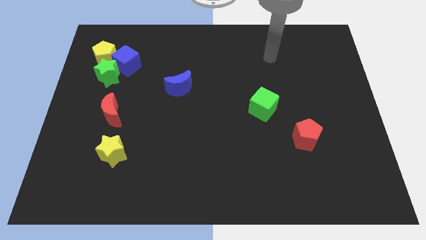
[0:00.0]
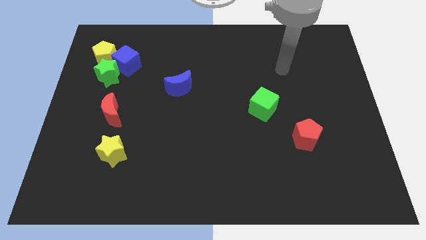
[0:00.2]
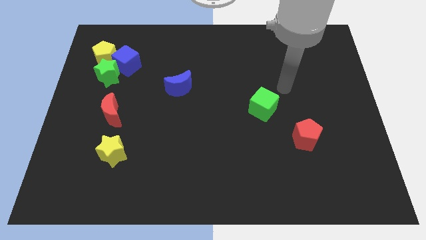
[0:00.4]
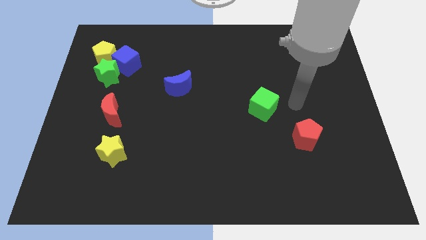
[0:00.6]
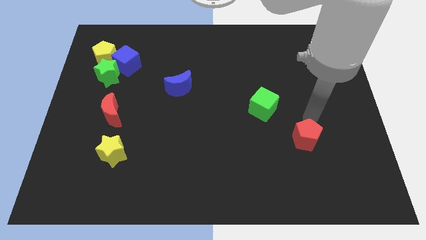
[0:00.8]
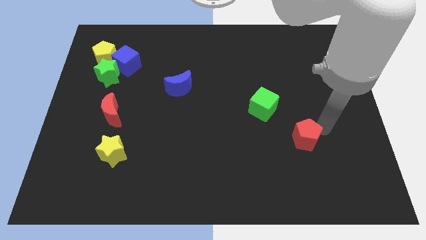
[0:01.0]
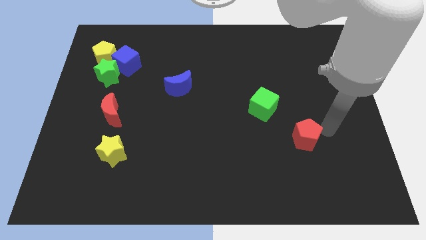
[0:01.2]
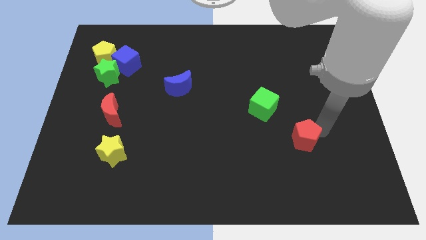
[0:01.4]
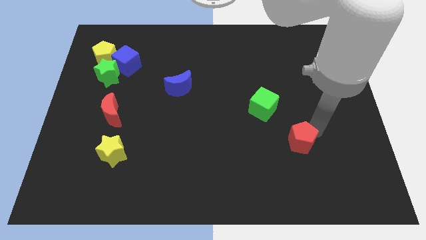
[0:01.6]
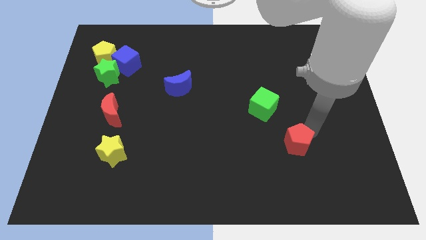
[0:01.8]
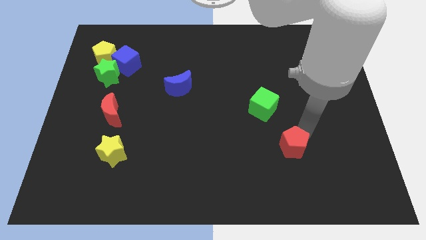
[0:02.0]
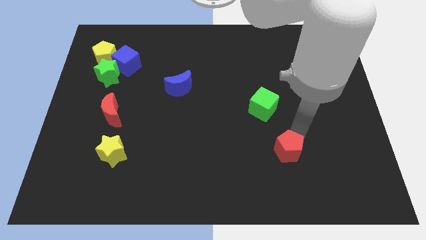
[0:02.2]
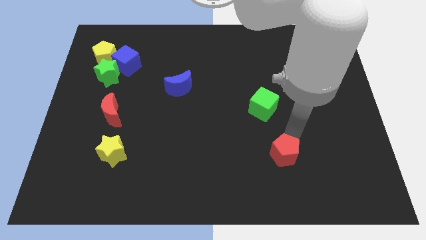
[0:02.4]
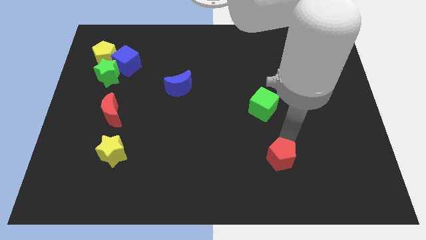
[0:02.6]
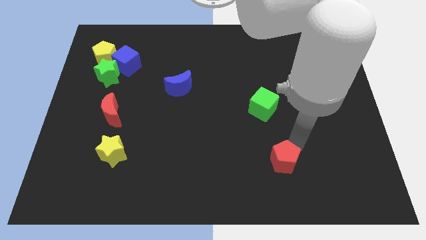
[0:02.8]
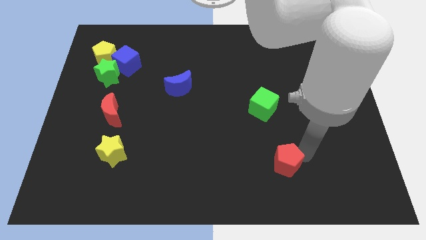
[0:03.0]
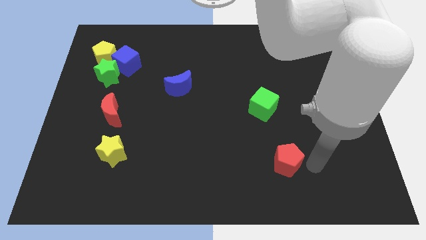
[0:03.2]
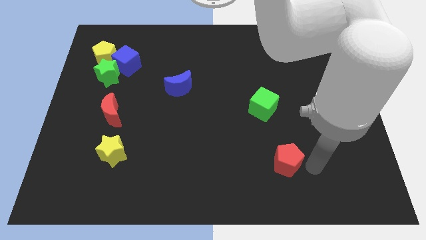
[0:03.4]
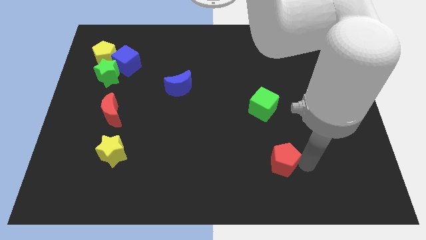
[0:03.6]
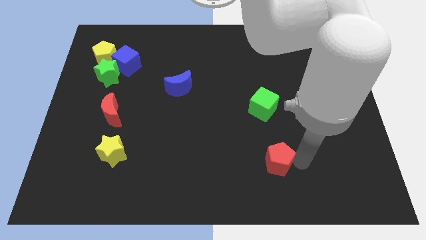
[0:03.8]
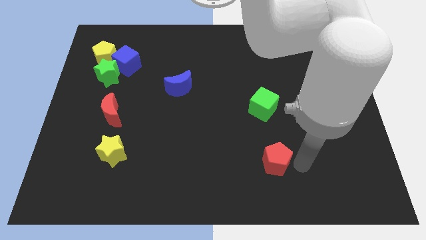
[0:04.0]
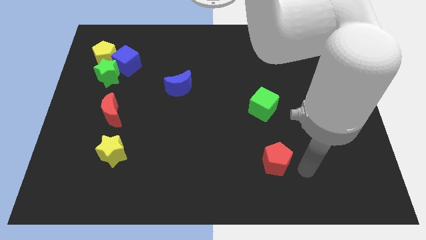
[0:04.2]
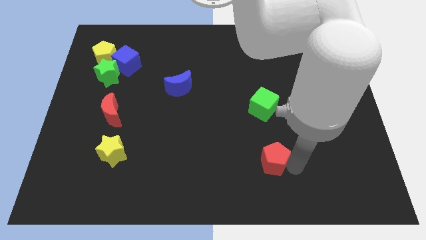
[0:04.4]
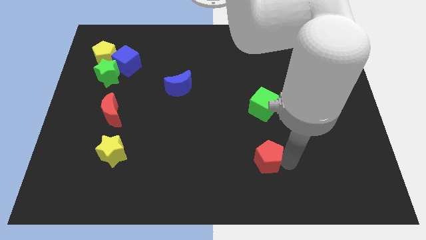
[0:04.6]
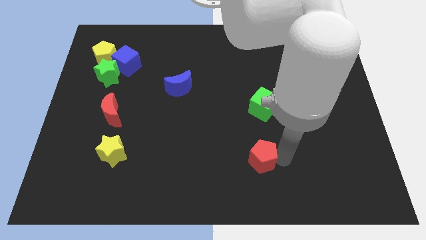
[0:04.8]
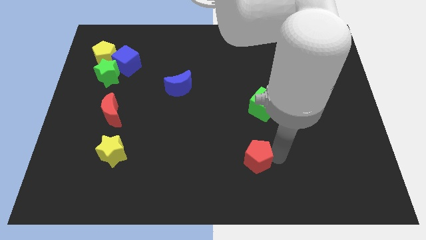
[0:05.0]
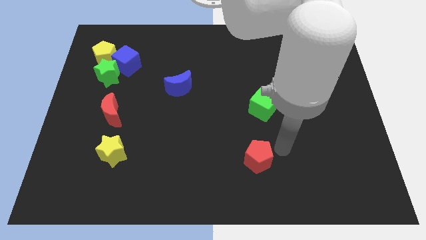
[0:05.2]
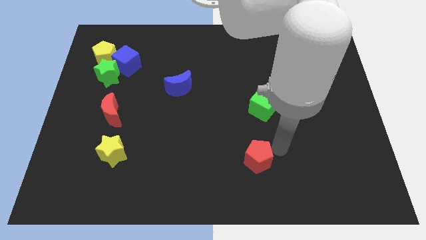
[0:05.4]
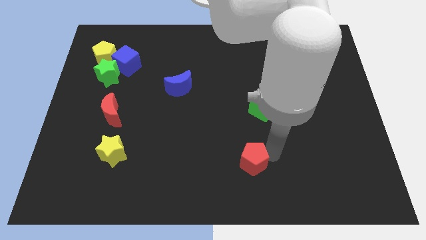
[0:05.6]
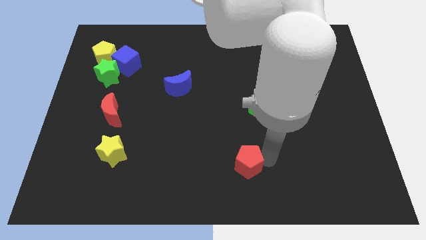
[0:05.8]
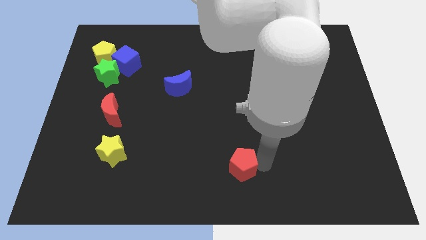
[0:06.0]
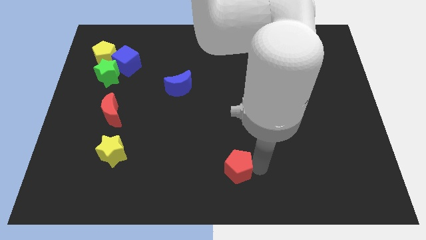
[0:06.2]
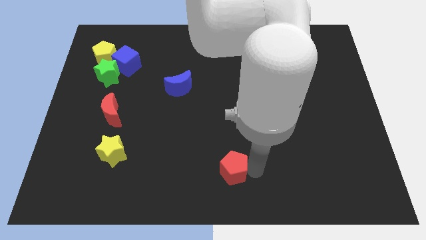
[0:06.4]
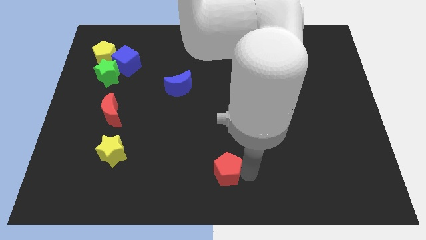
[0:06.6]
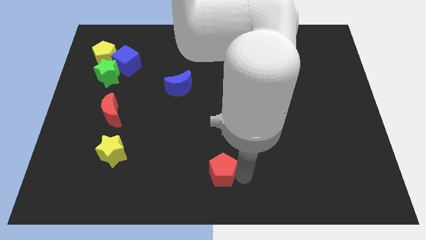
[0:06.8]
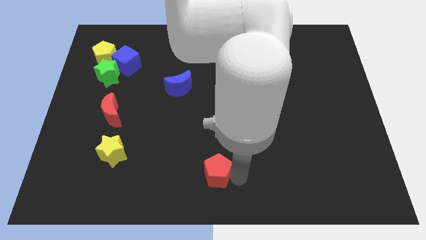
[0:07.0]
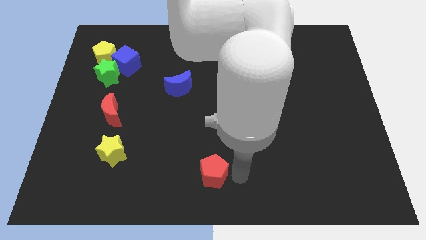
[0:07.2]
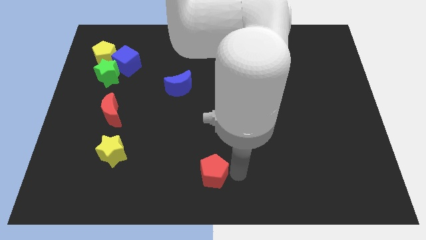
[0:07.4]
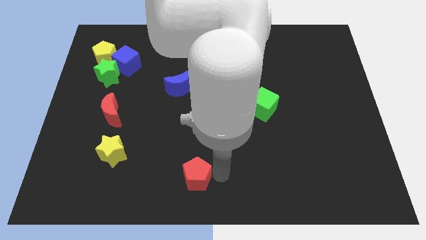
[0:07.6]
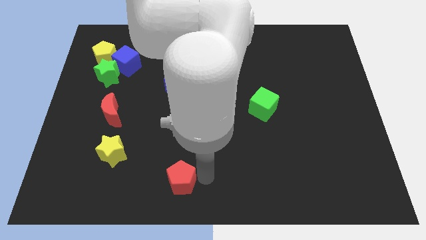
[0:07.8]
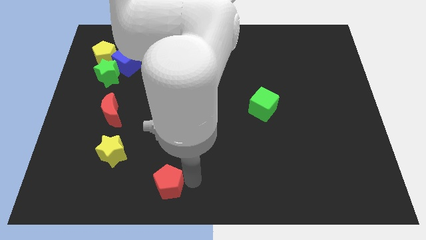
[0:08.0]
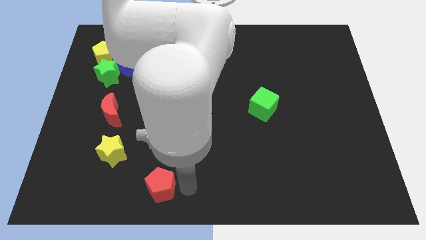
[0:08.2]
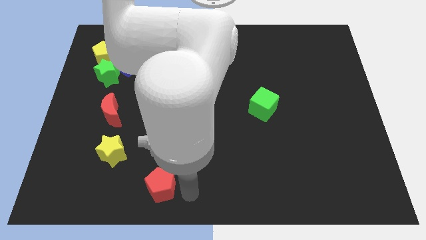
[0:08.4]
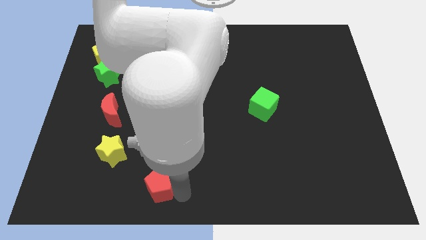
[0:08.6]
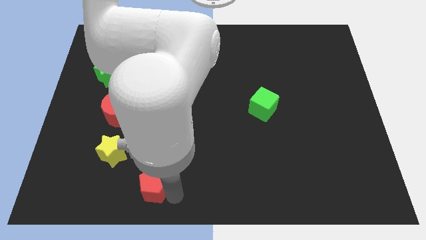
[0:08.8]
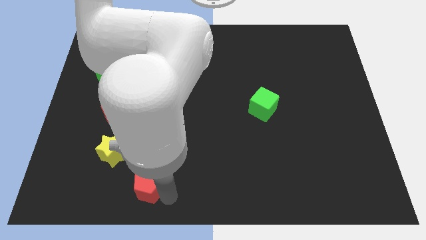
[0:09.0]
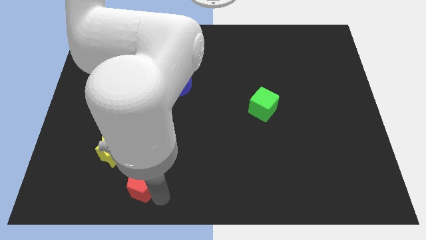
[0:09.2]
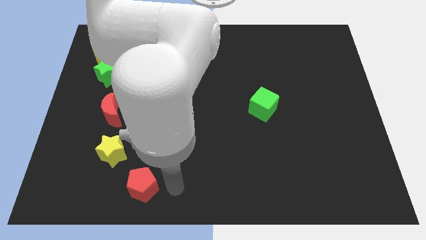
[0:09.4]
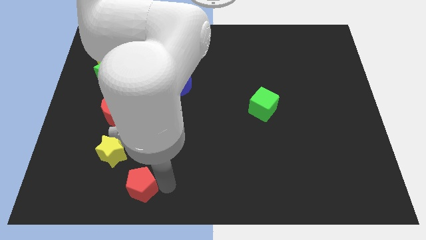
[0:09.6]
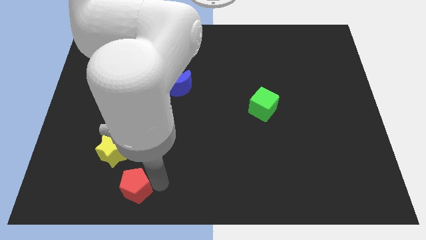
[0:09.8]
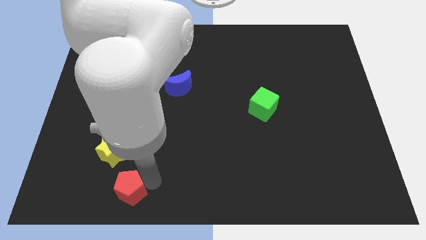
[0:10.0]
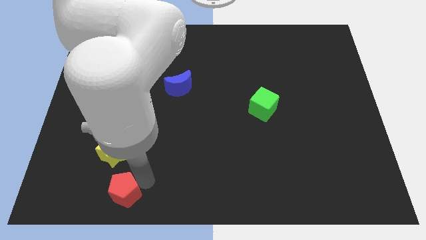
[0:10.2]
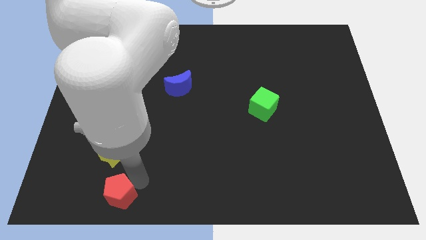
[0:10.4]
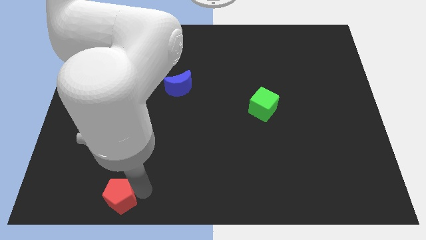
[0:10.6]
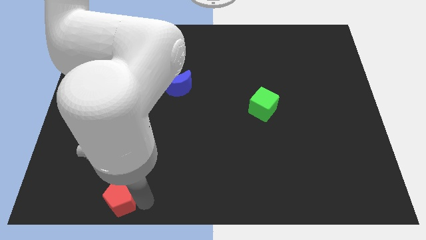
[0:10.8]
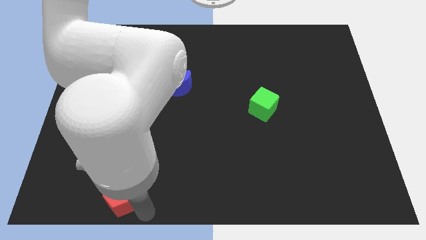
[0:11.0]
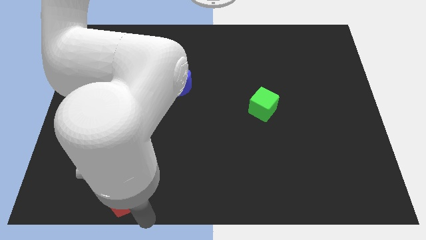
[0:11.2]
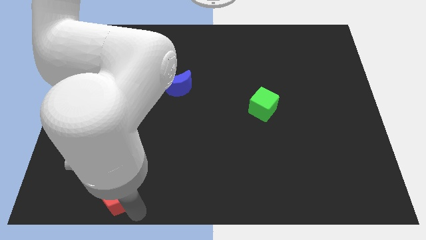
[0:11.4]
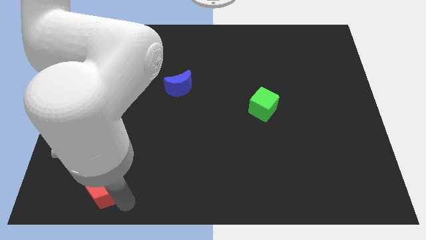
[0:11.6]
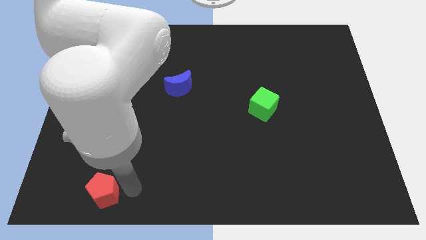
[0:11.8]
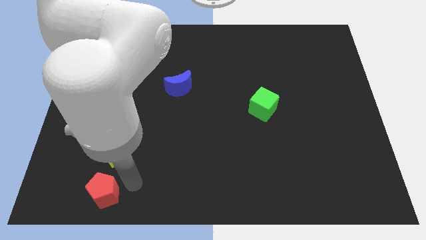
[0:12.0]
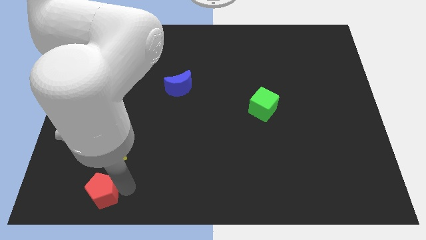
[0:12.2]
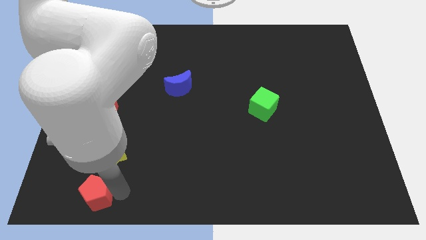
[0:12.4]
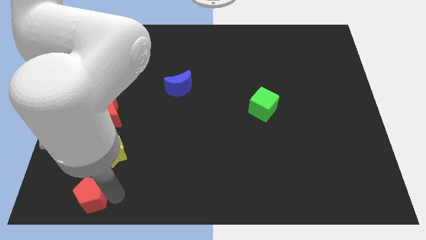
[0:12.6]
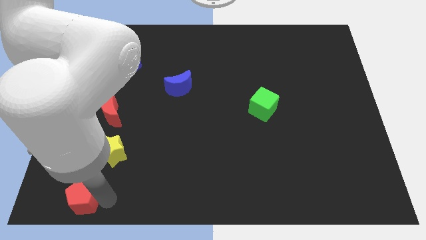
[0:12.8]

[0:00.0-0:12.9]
push the red pentagon to the bottom left of the board
